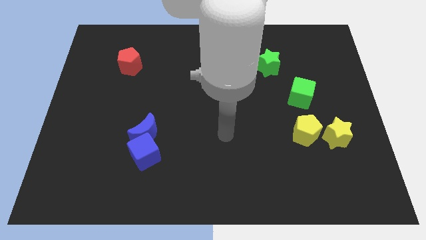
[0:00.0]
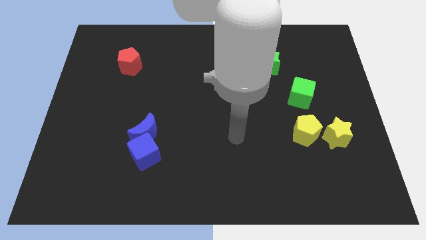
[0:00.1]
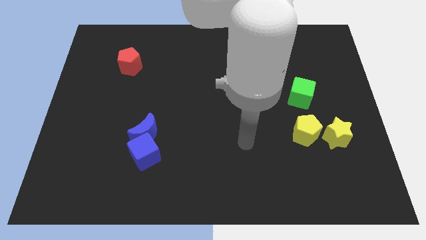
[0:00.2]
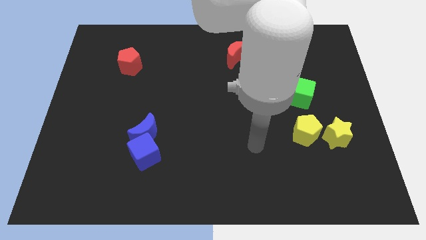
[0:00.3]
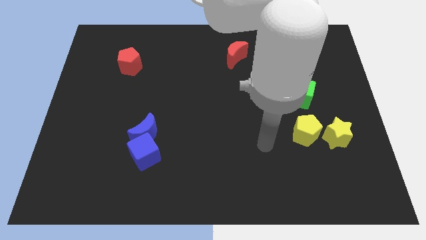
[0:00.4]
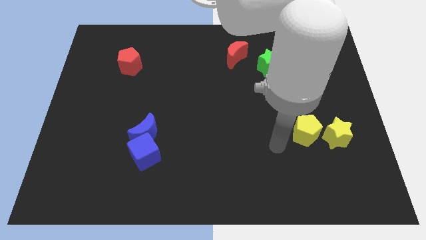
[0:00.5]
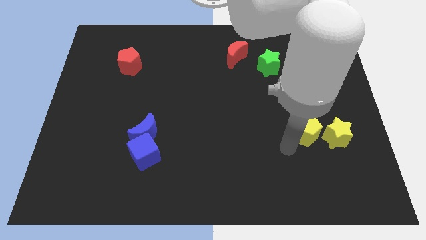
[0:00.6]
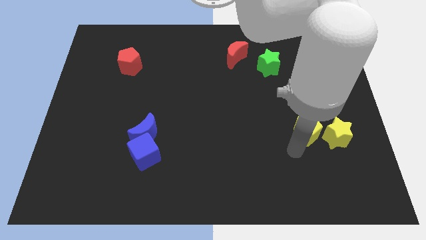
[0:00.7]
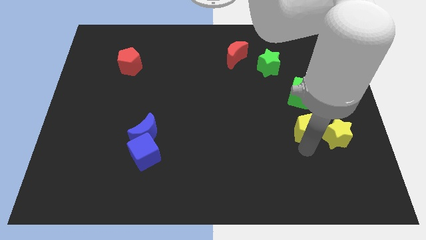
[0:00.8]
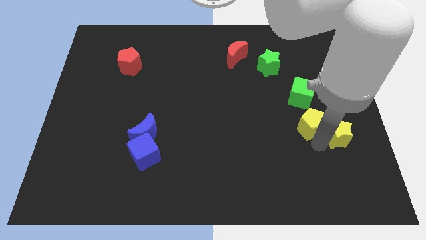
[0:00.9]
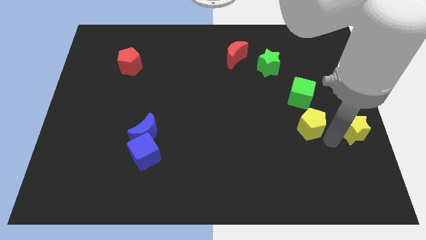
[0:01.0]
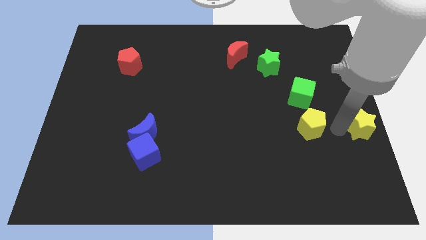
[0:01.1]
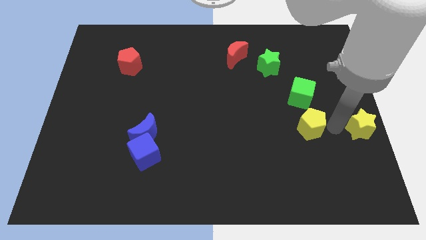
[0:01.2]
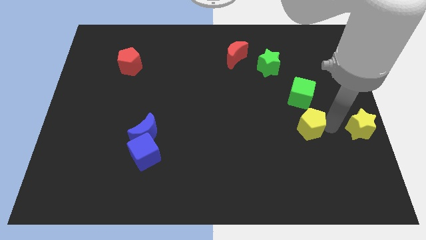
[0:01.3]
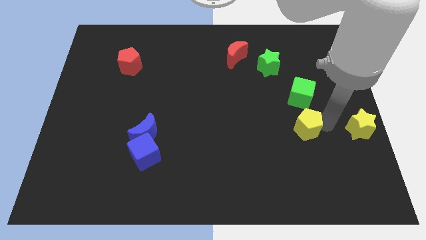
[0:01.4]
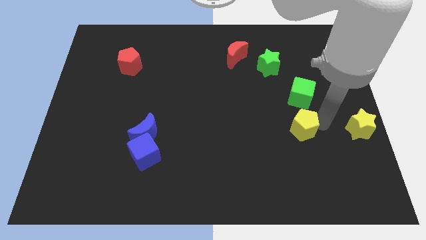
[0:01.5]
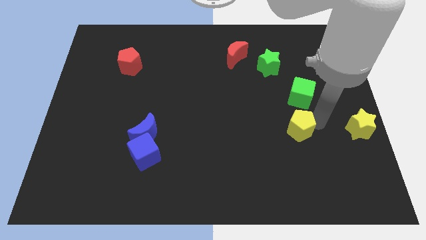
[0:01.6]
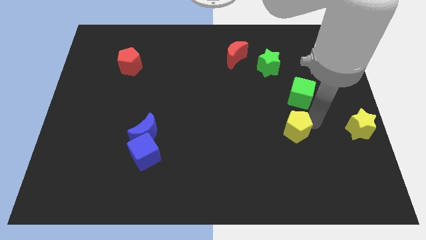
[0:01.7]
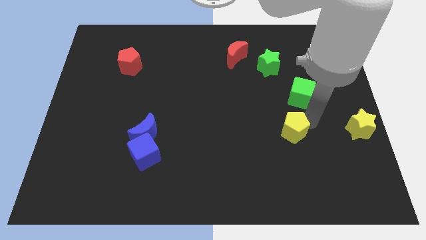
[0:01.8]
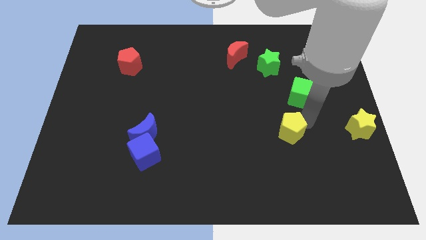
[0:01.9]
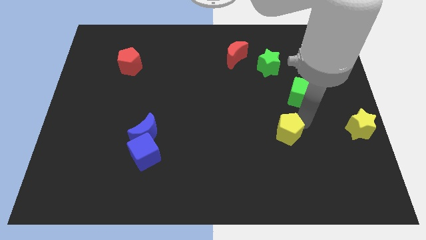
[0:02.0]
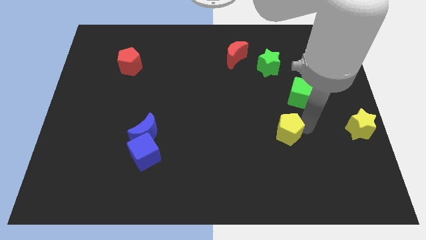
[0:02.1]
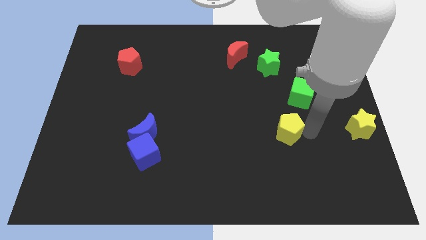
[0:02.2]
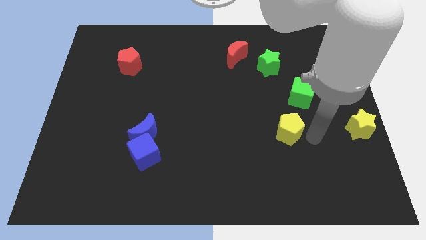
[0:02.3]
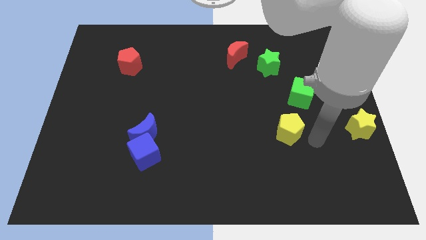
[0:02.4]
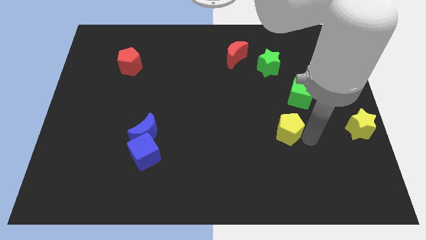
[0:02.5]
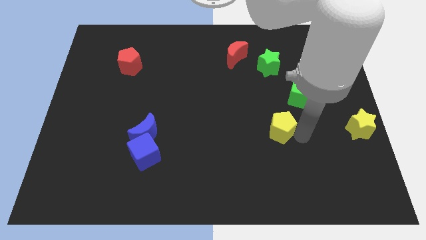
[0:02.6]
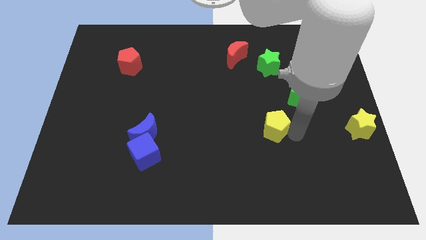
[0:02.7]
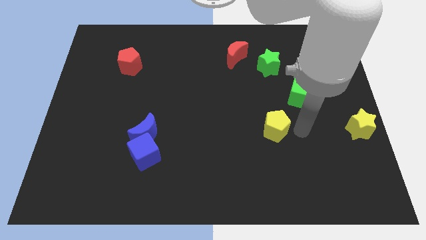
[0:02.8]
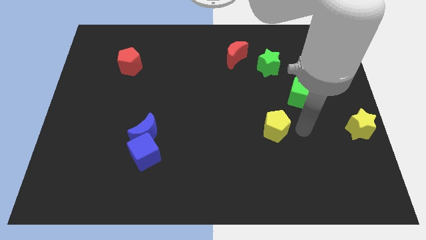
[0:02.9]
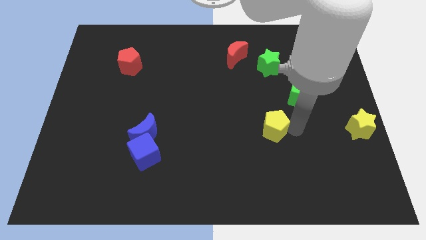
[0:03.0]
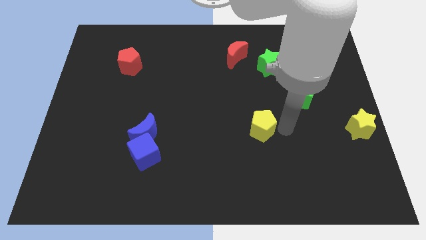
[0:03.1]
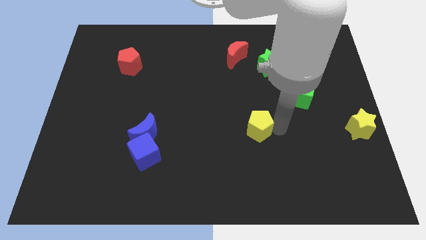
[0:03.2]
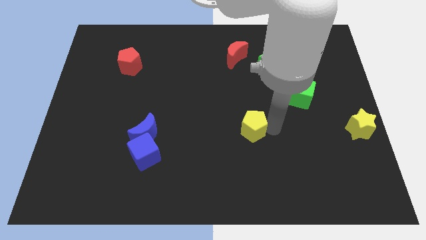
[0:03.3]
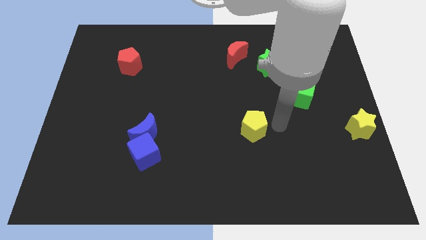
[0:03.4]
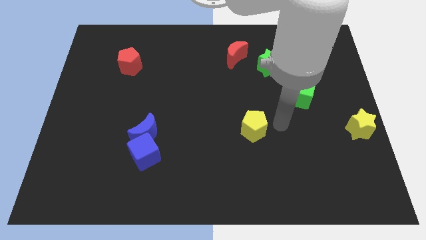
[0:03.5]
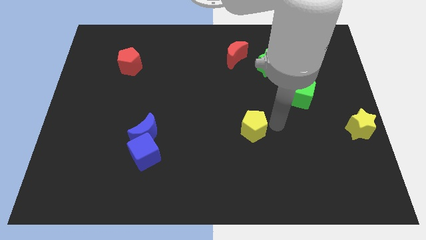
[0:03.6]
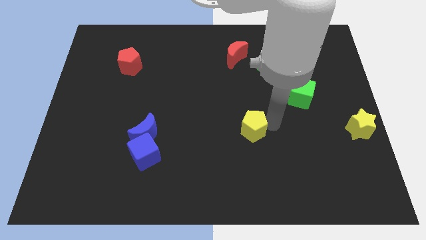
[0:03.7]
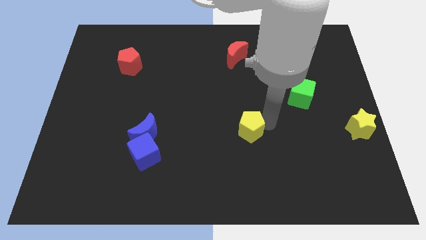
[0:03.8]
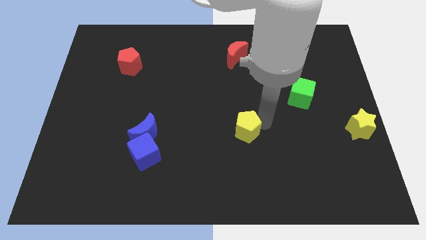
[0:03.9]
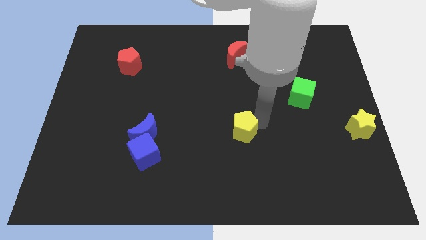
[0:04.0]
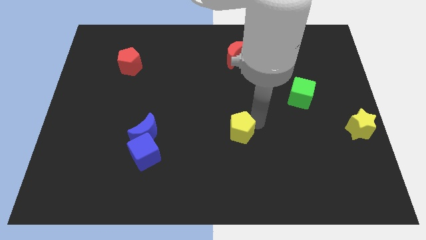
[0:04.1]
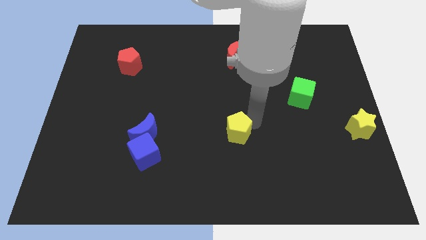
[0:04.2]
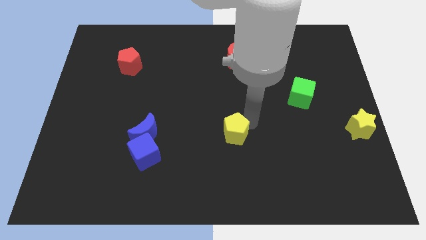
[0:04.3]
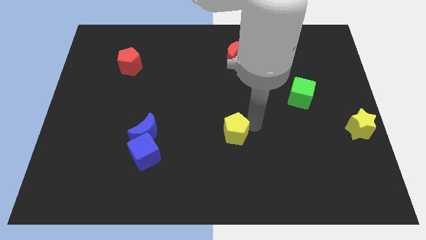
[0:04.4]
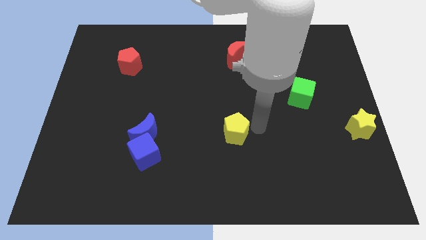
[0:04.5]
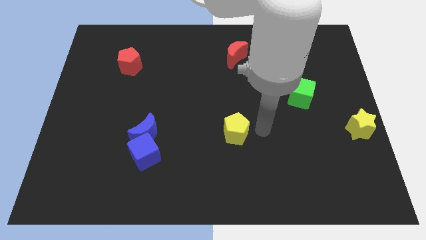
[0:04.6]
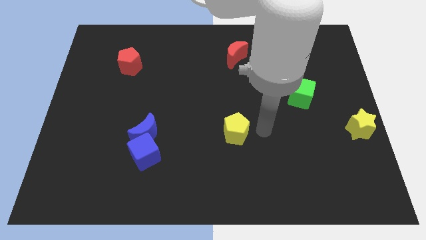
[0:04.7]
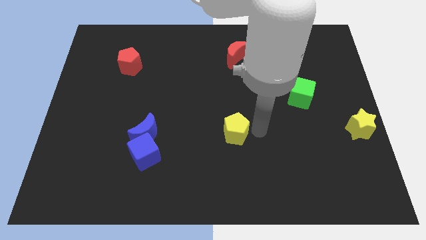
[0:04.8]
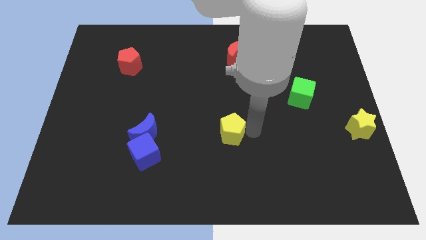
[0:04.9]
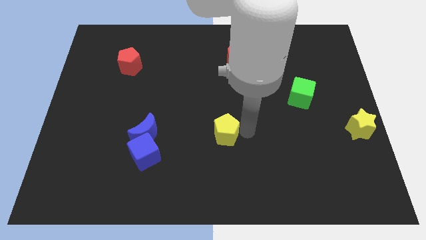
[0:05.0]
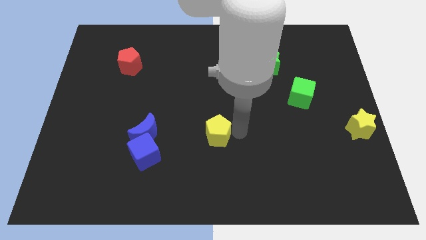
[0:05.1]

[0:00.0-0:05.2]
move the yellow pentagon to the right of the blue moon

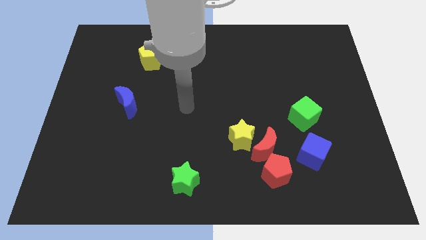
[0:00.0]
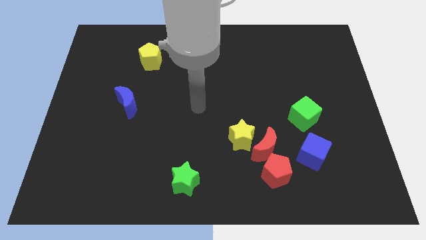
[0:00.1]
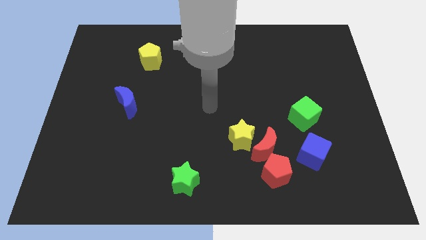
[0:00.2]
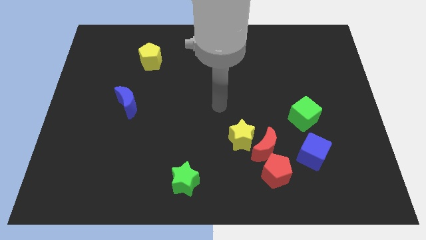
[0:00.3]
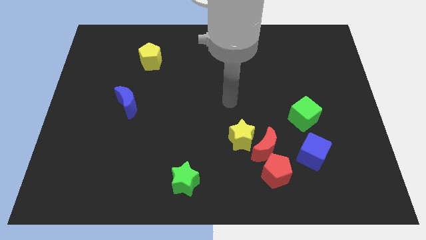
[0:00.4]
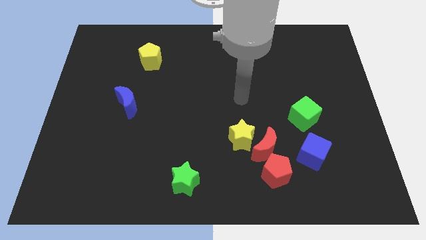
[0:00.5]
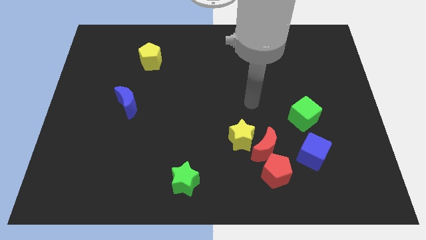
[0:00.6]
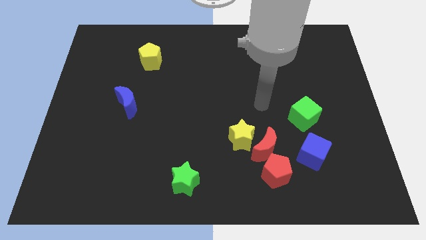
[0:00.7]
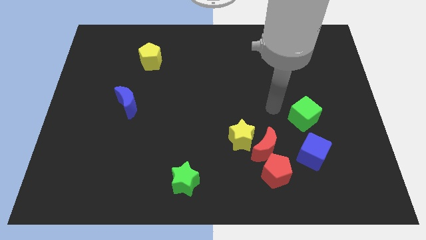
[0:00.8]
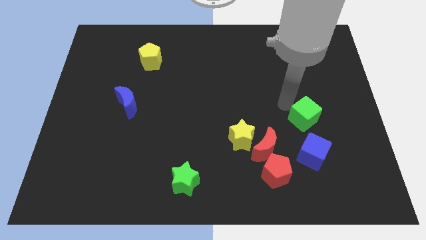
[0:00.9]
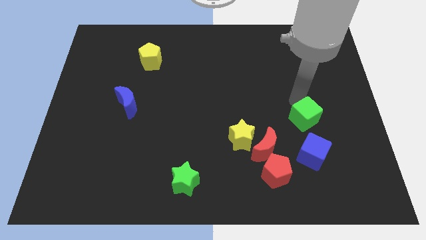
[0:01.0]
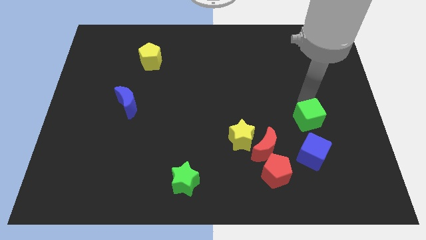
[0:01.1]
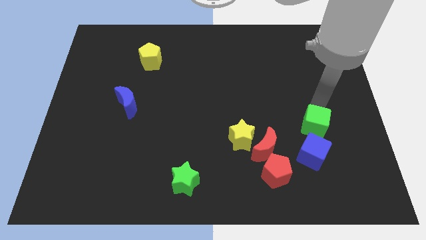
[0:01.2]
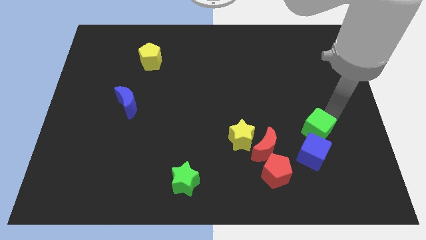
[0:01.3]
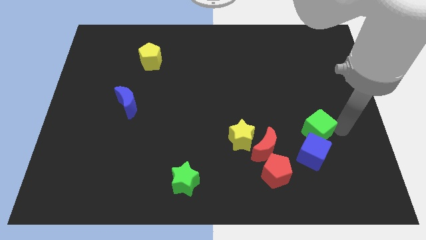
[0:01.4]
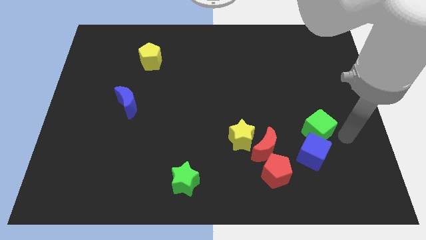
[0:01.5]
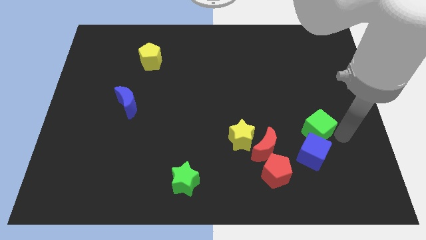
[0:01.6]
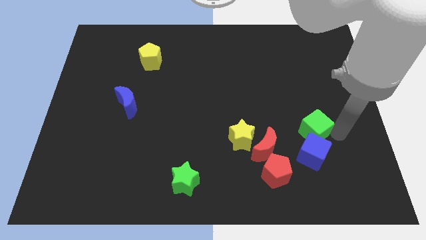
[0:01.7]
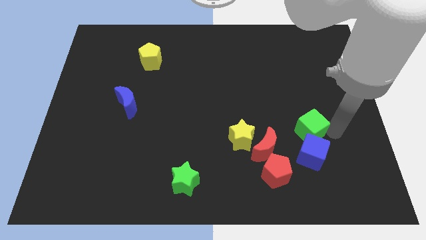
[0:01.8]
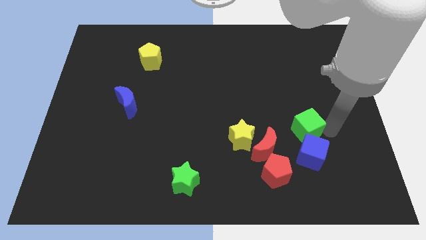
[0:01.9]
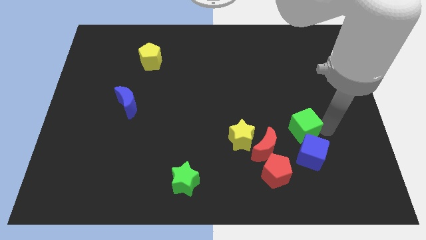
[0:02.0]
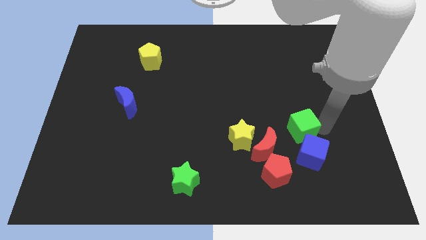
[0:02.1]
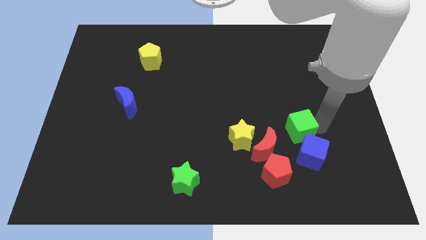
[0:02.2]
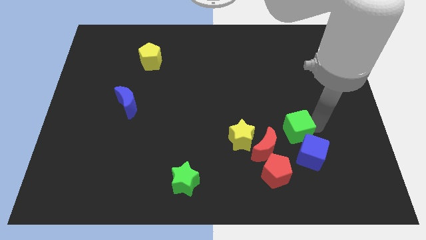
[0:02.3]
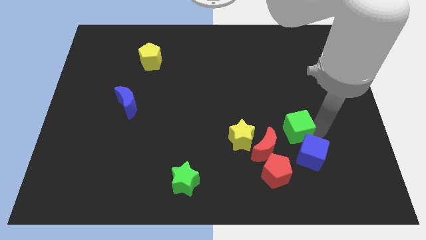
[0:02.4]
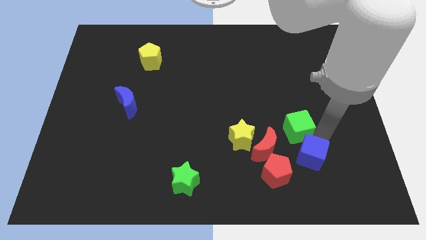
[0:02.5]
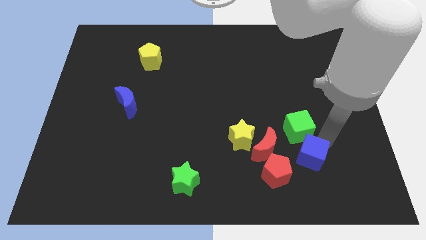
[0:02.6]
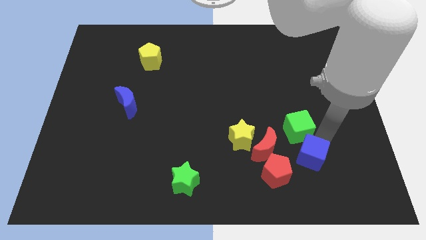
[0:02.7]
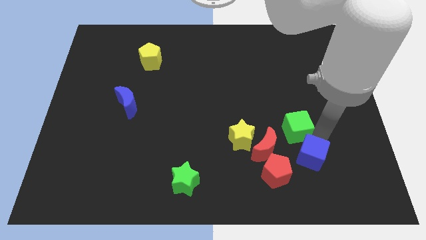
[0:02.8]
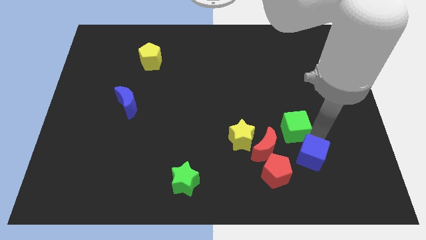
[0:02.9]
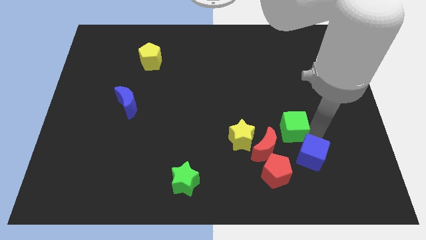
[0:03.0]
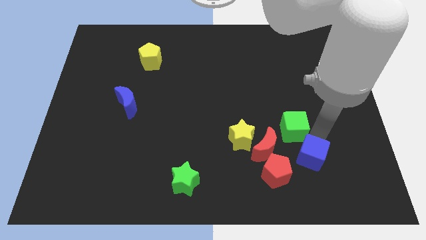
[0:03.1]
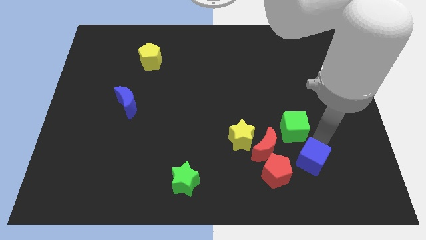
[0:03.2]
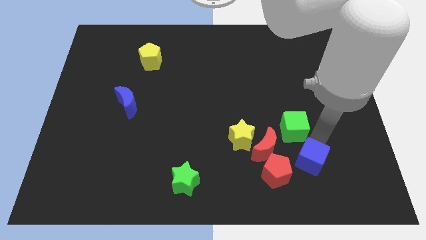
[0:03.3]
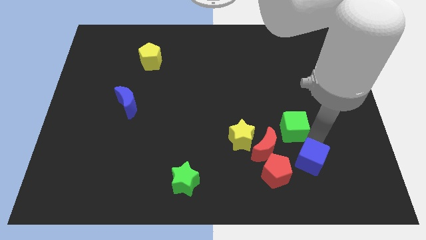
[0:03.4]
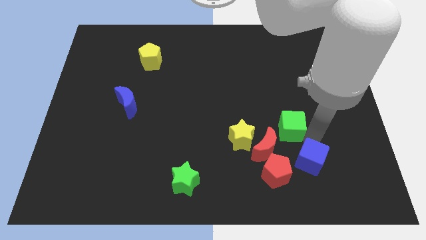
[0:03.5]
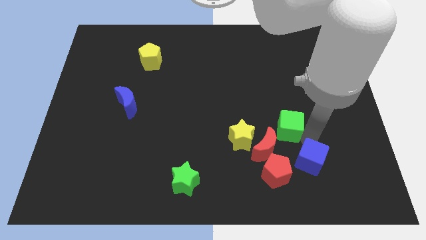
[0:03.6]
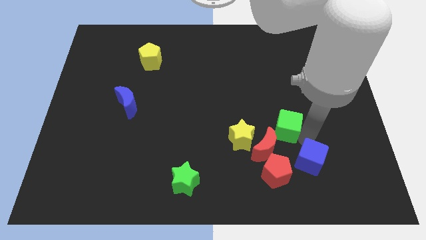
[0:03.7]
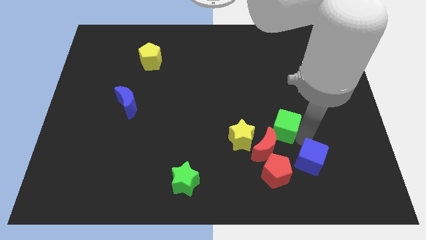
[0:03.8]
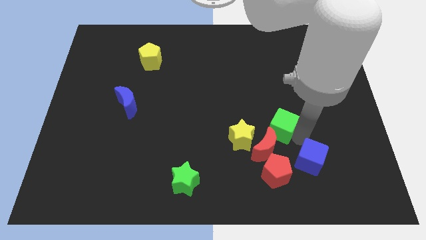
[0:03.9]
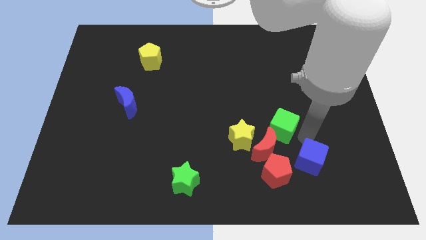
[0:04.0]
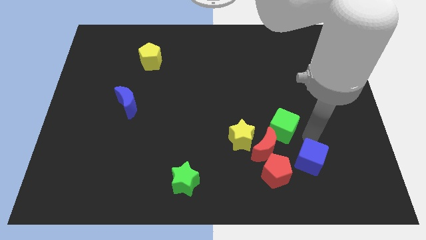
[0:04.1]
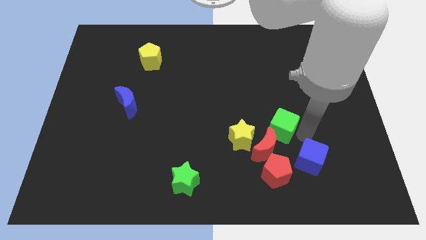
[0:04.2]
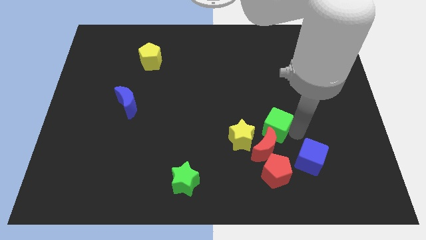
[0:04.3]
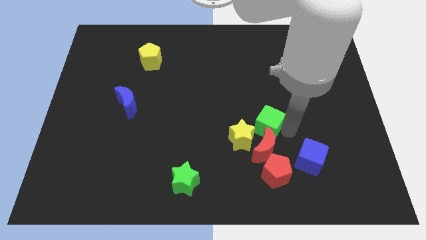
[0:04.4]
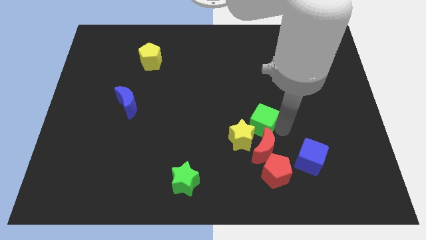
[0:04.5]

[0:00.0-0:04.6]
put the green cube to the top left side of the red moon
